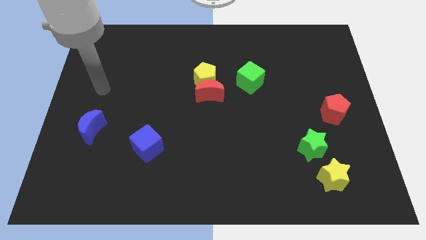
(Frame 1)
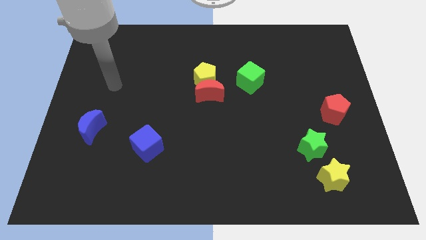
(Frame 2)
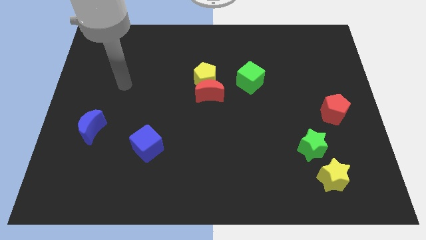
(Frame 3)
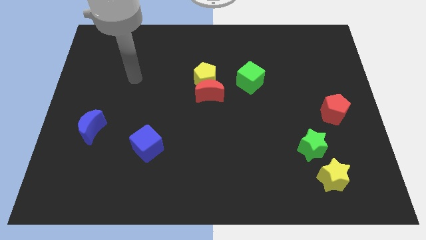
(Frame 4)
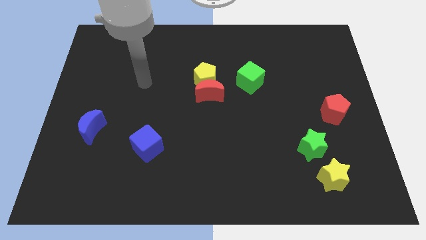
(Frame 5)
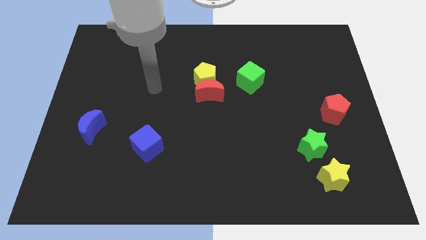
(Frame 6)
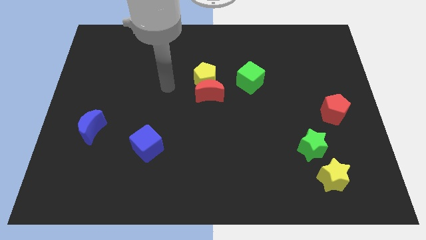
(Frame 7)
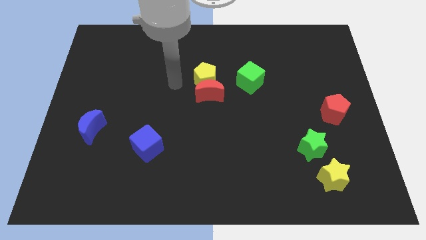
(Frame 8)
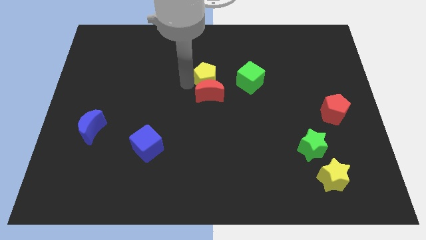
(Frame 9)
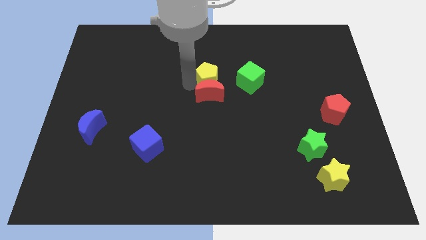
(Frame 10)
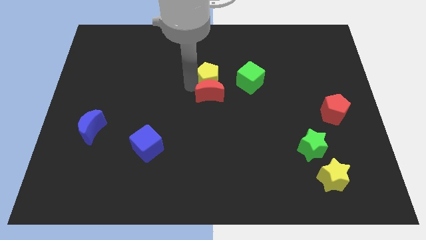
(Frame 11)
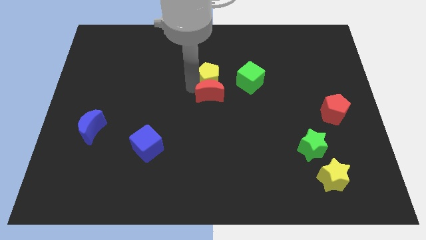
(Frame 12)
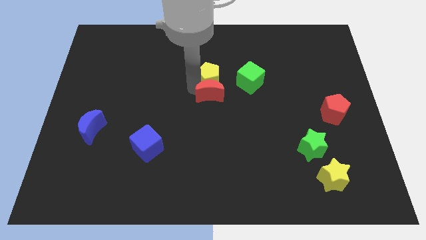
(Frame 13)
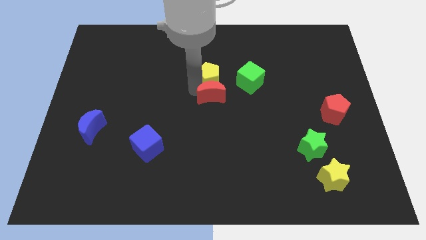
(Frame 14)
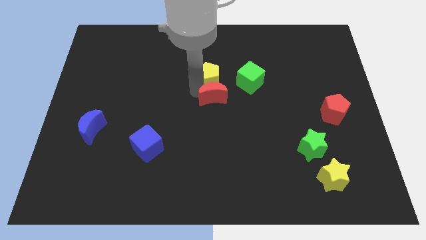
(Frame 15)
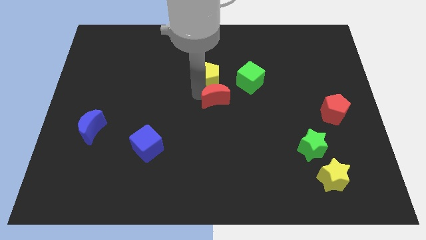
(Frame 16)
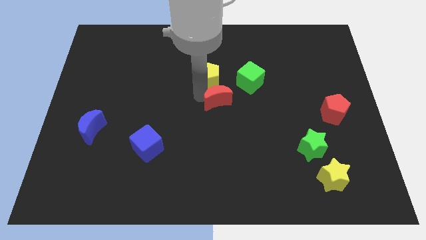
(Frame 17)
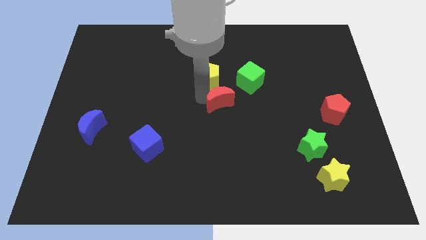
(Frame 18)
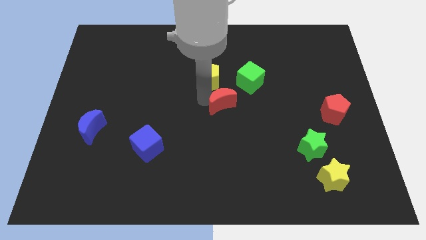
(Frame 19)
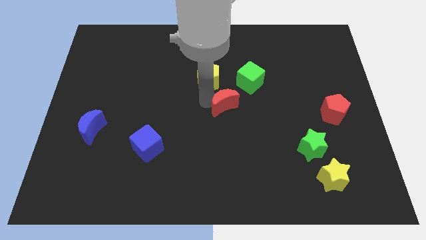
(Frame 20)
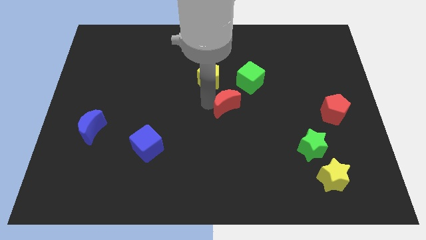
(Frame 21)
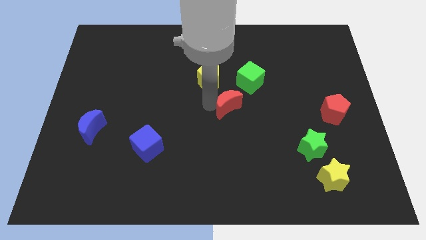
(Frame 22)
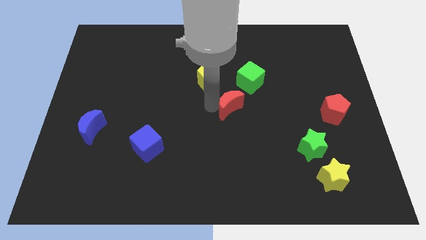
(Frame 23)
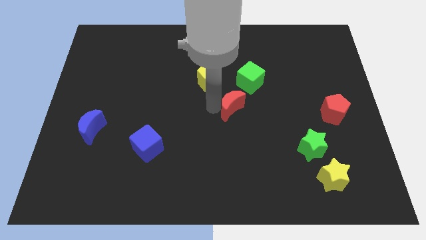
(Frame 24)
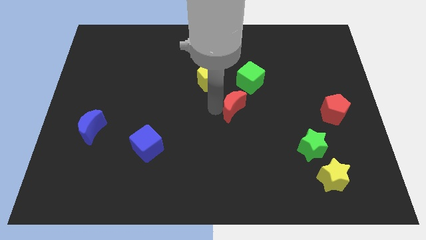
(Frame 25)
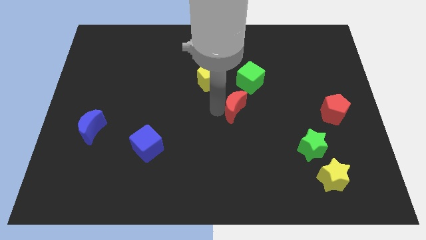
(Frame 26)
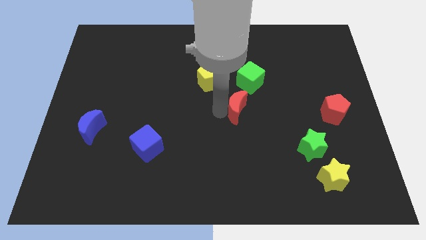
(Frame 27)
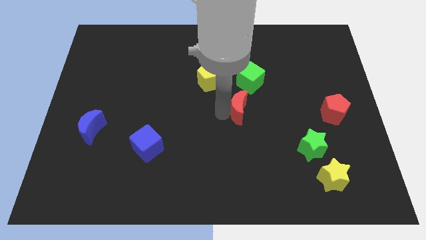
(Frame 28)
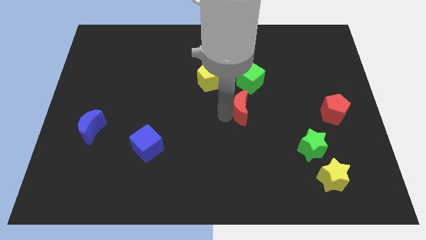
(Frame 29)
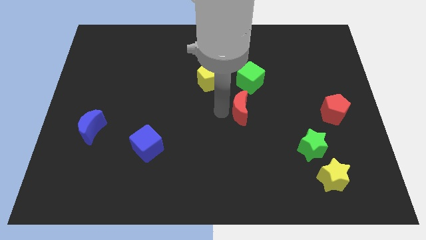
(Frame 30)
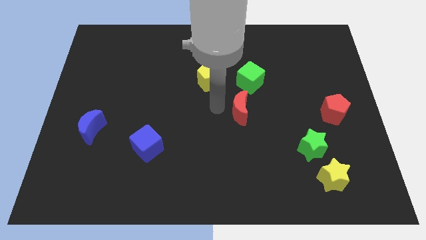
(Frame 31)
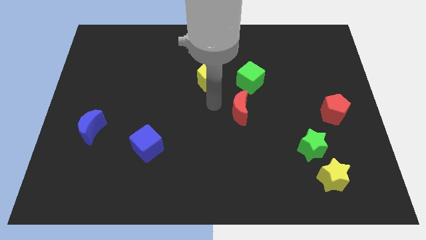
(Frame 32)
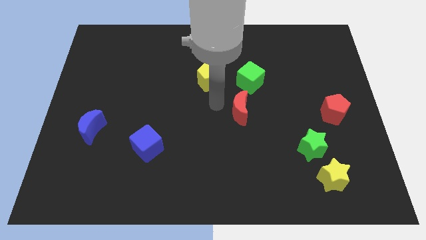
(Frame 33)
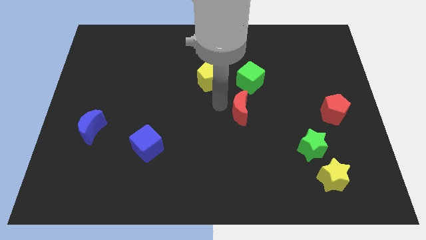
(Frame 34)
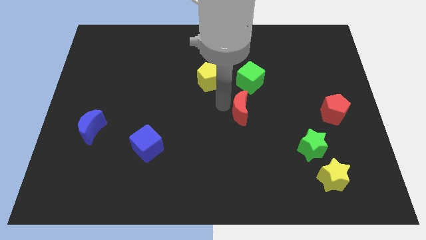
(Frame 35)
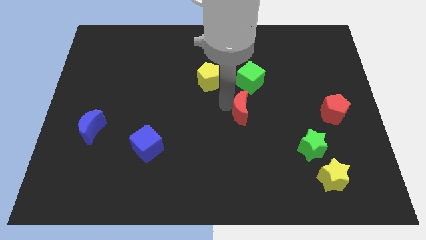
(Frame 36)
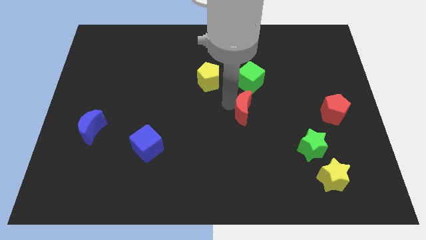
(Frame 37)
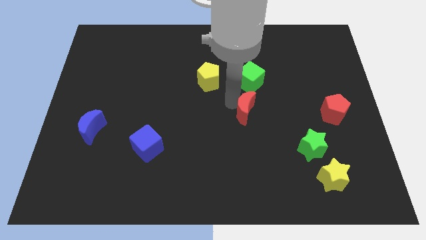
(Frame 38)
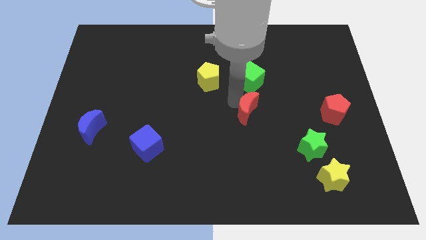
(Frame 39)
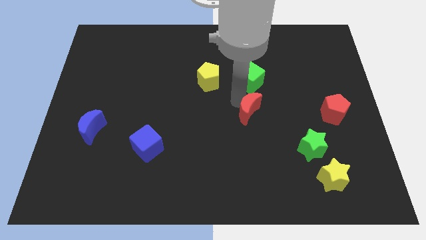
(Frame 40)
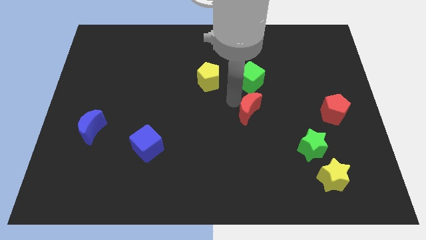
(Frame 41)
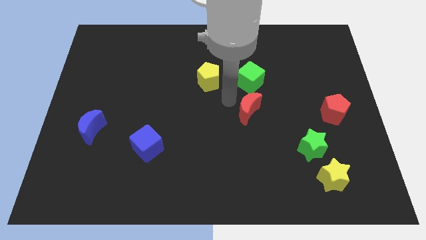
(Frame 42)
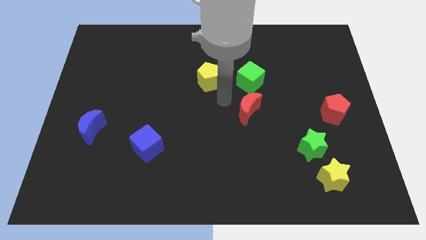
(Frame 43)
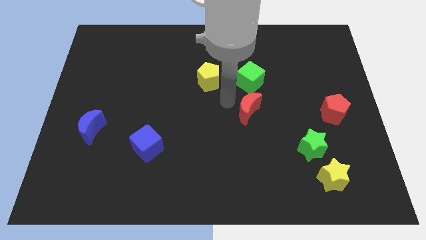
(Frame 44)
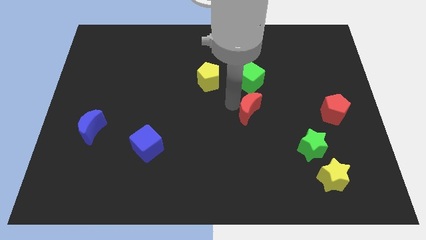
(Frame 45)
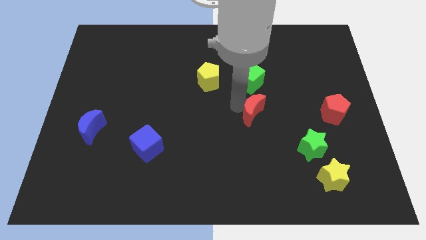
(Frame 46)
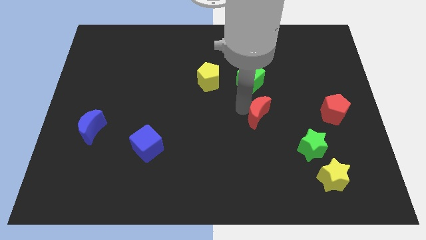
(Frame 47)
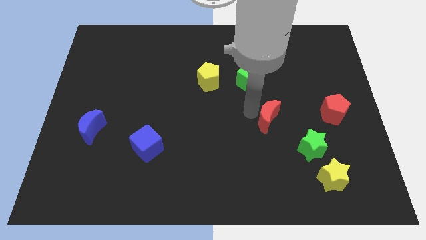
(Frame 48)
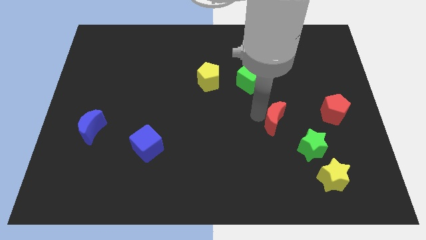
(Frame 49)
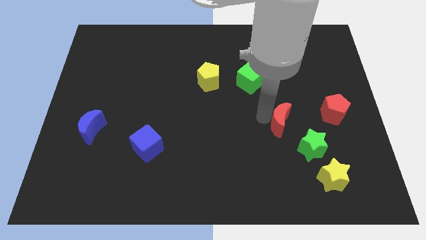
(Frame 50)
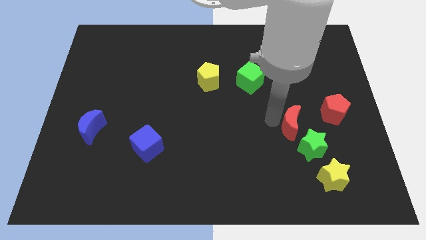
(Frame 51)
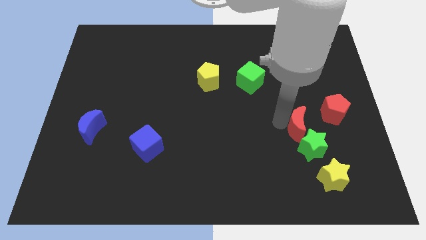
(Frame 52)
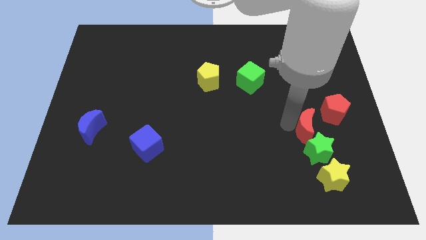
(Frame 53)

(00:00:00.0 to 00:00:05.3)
push the red moon to the top of the yellow star

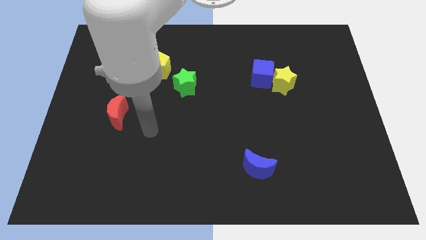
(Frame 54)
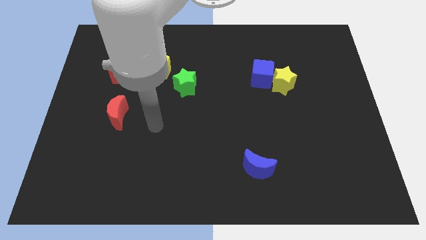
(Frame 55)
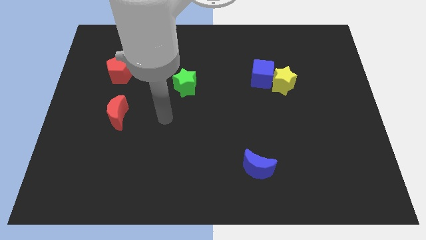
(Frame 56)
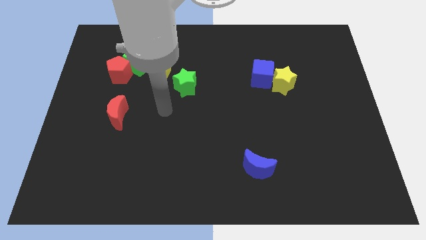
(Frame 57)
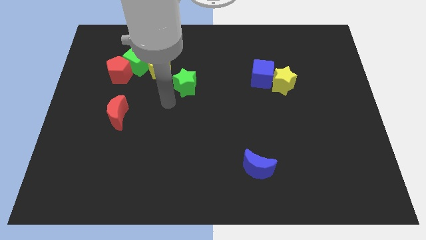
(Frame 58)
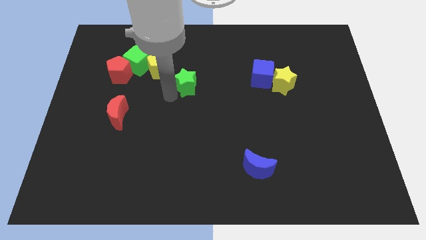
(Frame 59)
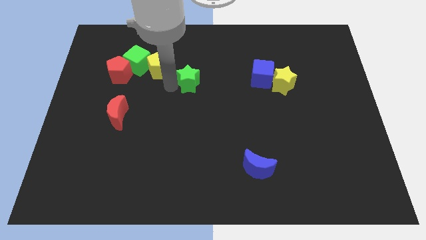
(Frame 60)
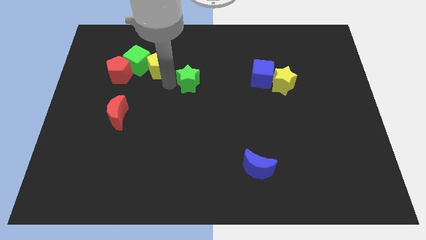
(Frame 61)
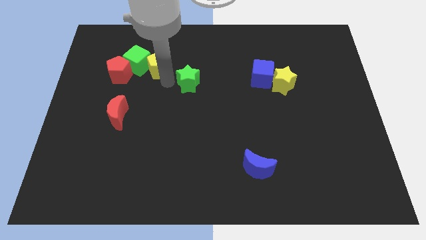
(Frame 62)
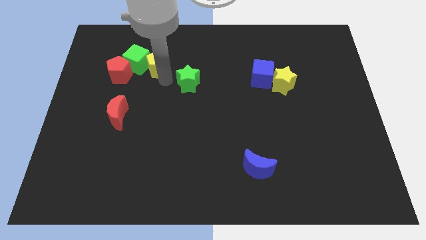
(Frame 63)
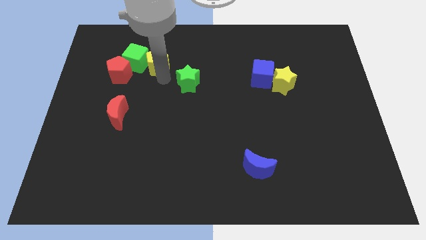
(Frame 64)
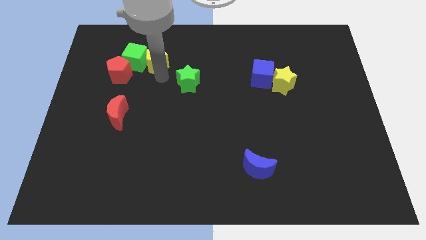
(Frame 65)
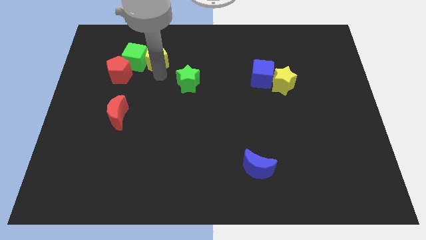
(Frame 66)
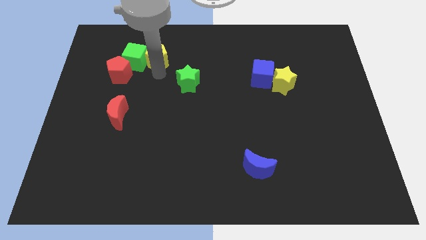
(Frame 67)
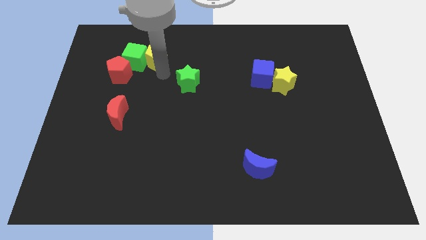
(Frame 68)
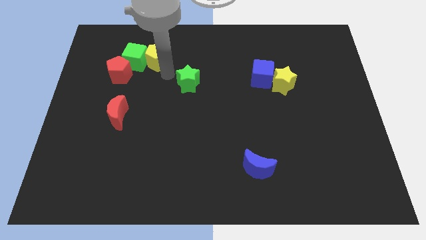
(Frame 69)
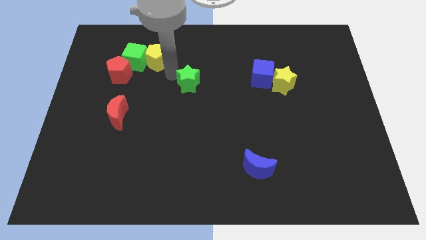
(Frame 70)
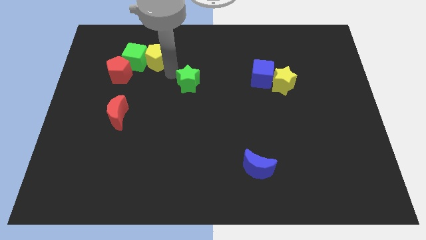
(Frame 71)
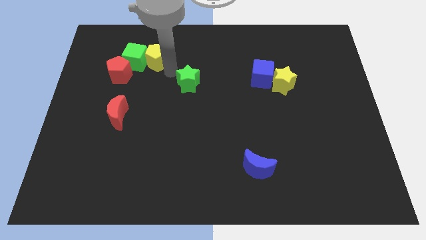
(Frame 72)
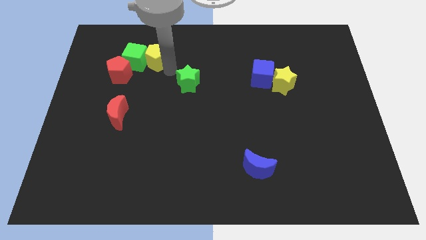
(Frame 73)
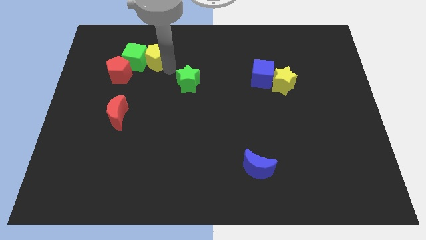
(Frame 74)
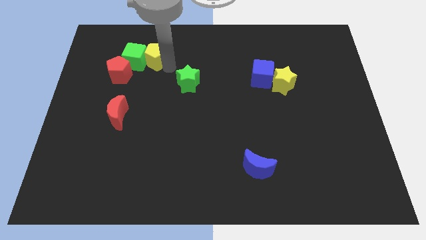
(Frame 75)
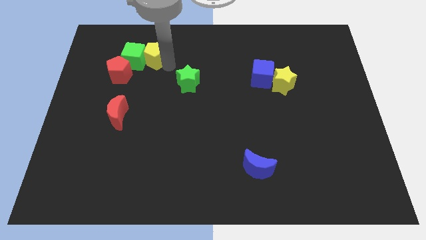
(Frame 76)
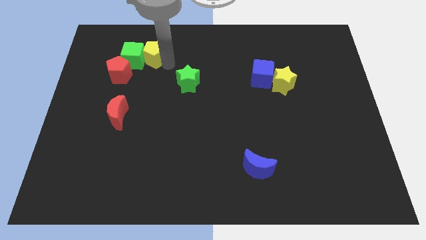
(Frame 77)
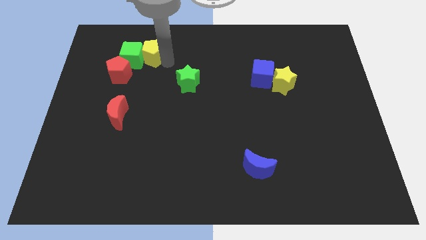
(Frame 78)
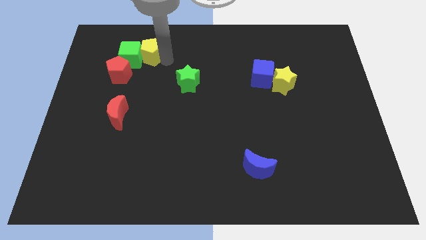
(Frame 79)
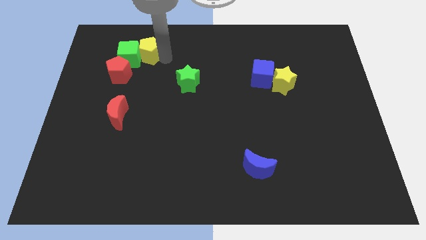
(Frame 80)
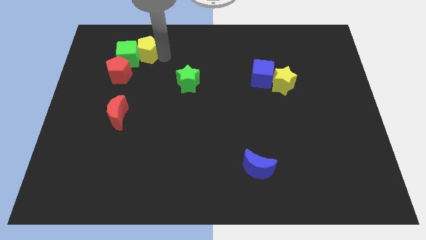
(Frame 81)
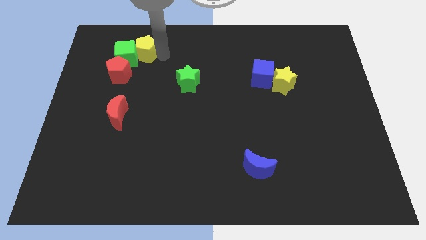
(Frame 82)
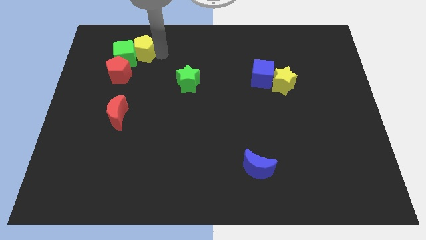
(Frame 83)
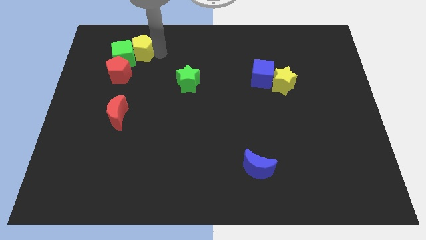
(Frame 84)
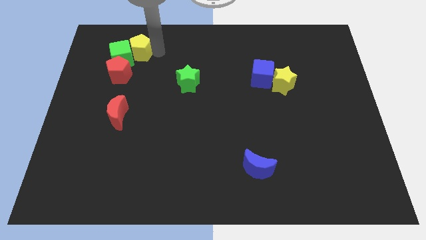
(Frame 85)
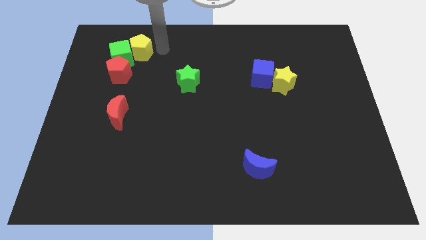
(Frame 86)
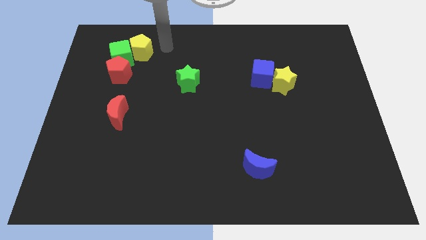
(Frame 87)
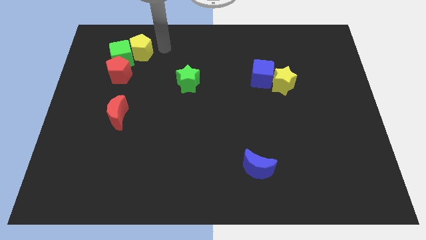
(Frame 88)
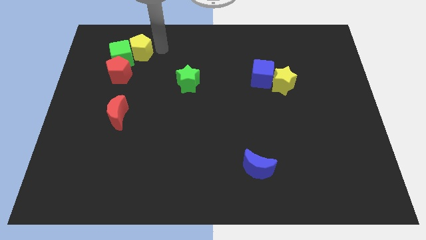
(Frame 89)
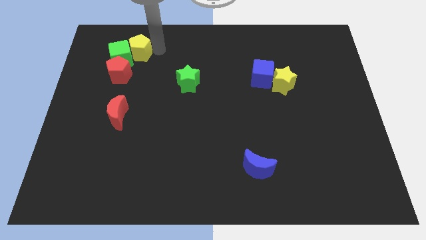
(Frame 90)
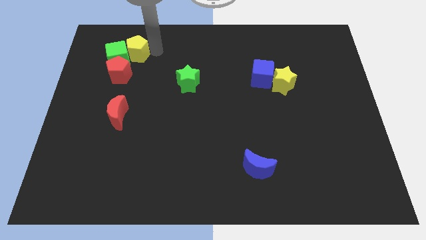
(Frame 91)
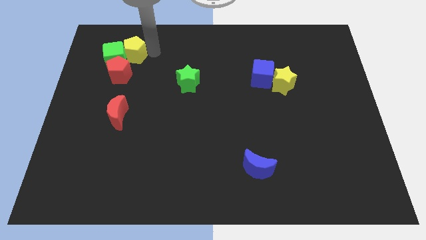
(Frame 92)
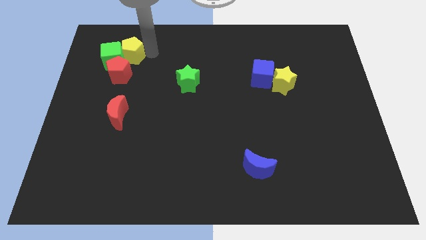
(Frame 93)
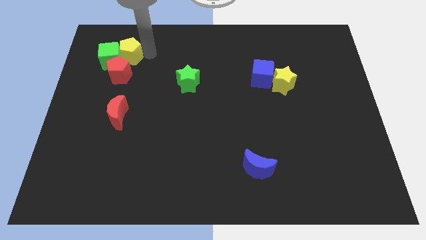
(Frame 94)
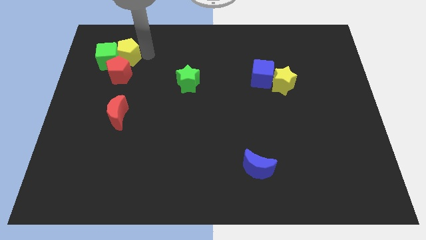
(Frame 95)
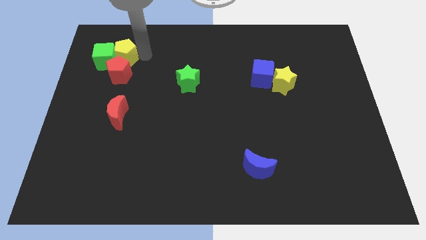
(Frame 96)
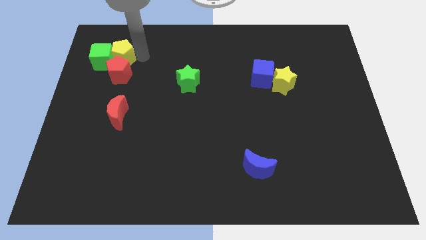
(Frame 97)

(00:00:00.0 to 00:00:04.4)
push the yellow pentagon to the top left of the red pentagon
